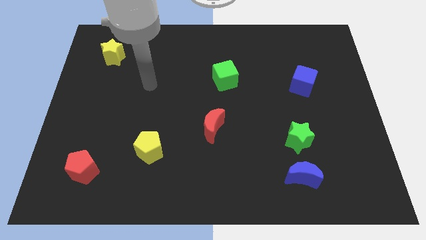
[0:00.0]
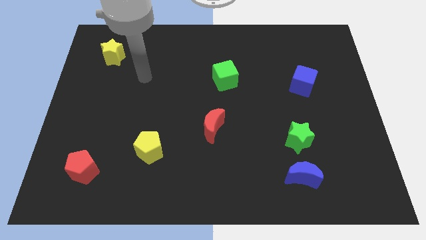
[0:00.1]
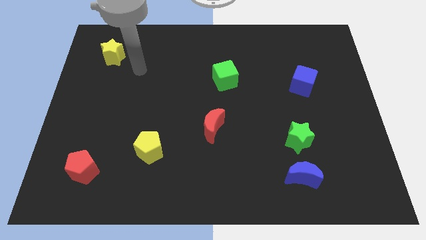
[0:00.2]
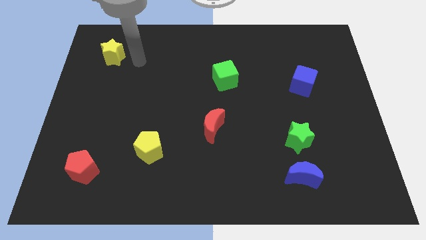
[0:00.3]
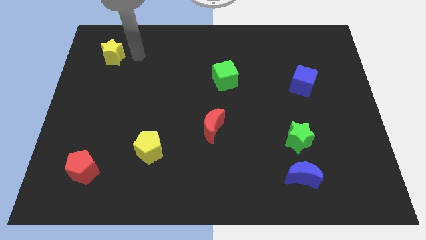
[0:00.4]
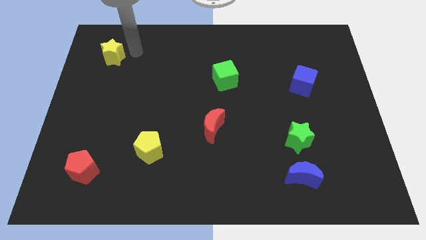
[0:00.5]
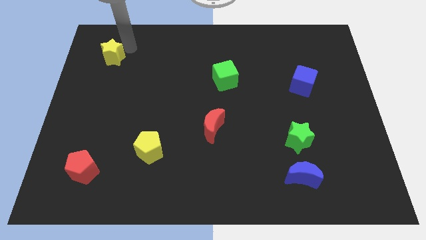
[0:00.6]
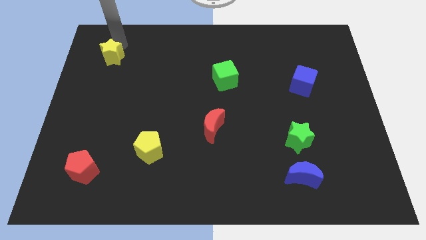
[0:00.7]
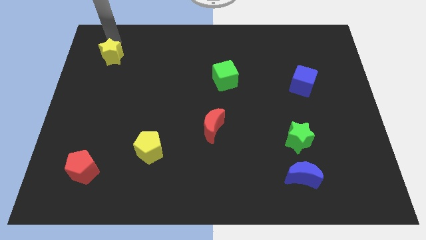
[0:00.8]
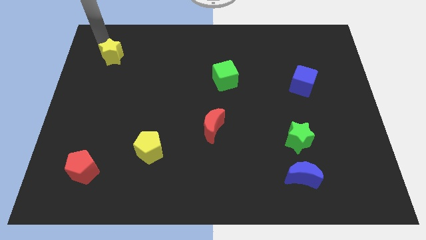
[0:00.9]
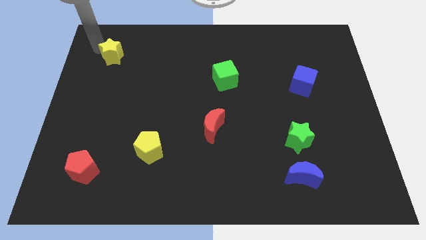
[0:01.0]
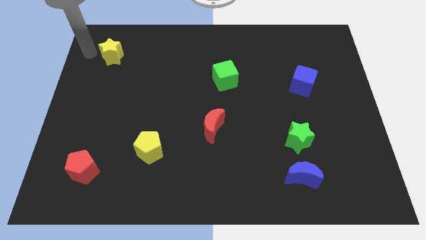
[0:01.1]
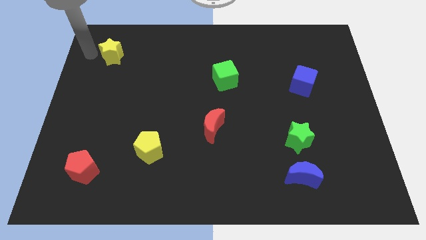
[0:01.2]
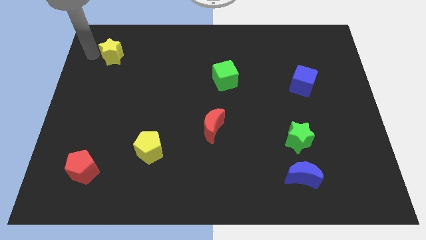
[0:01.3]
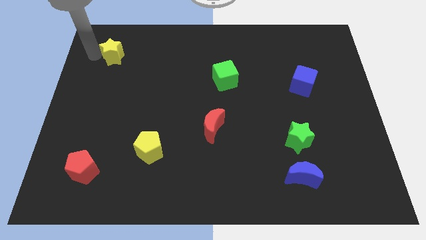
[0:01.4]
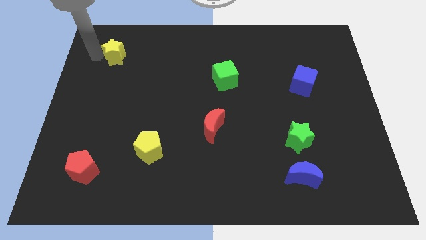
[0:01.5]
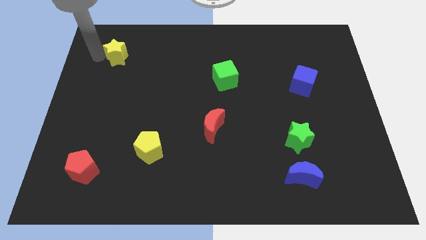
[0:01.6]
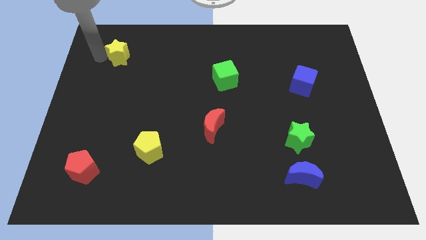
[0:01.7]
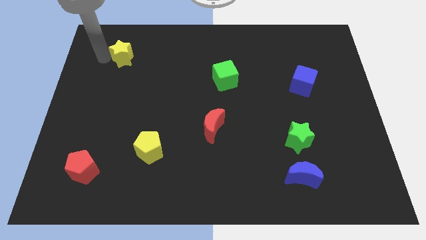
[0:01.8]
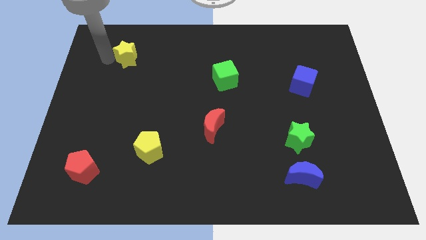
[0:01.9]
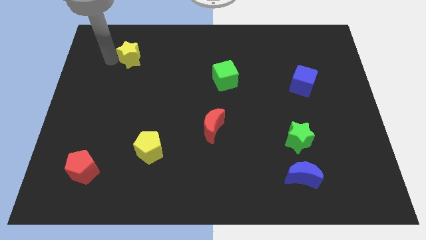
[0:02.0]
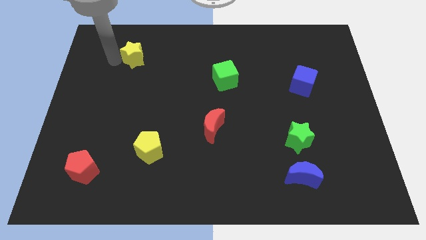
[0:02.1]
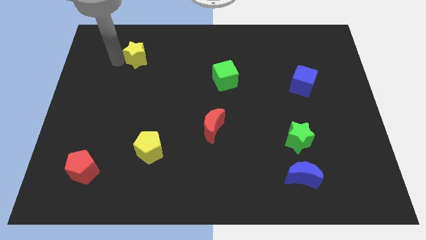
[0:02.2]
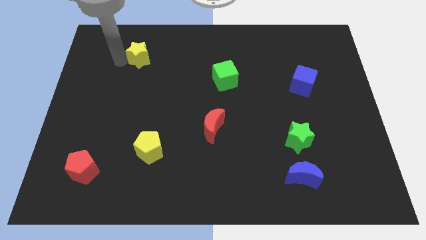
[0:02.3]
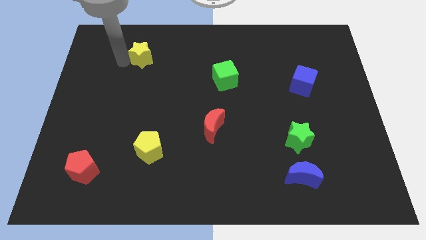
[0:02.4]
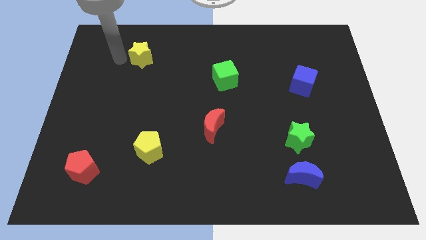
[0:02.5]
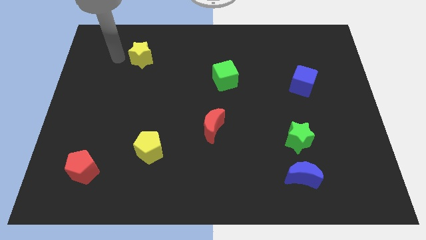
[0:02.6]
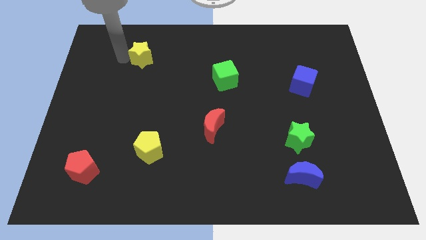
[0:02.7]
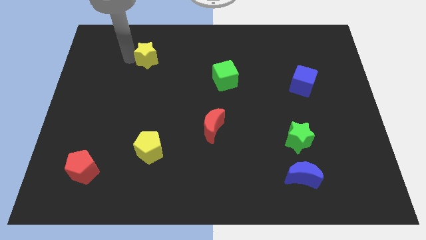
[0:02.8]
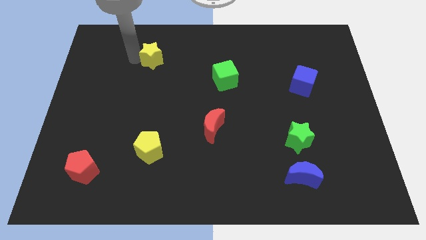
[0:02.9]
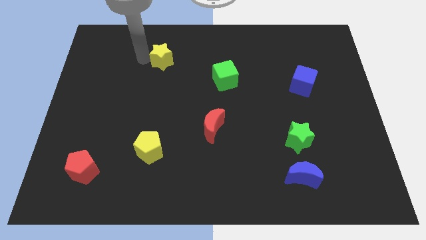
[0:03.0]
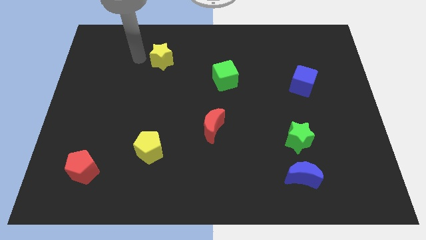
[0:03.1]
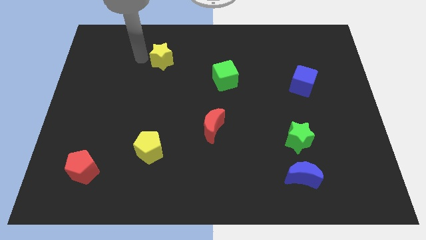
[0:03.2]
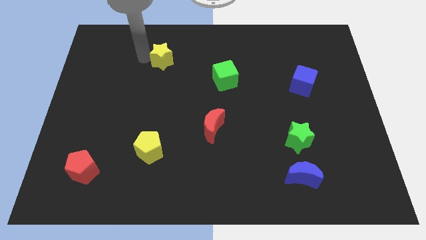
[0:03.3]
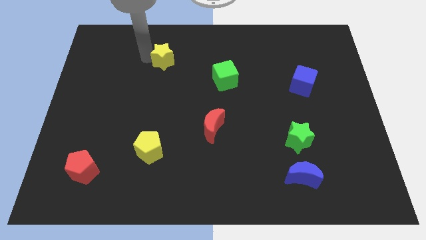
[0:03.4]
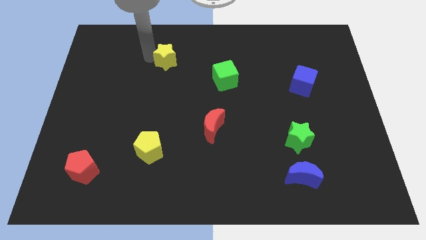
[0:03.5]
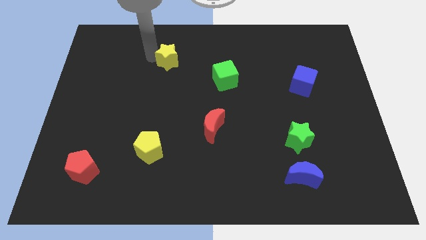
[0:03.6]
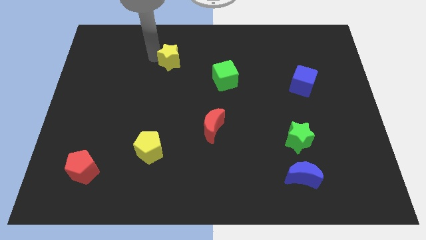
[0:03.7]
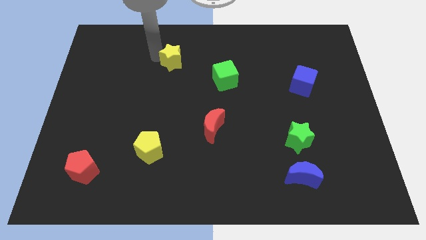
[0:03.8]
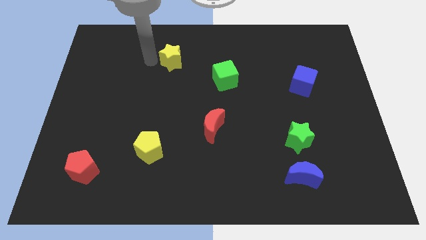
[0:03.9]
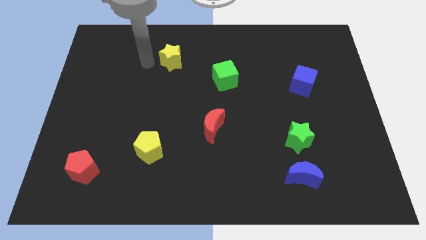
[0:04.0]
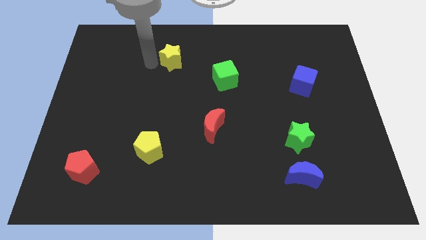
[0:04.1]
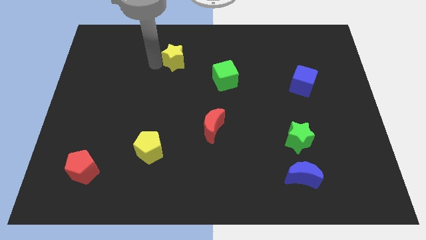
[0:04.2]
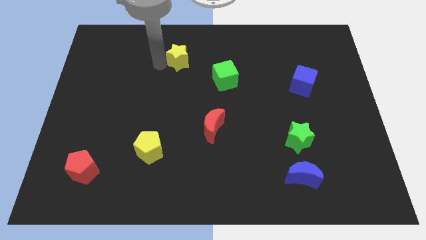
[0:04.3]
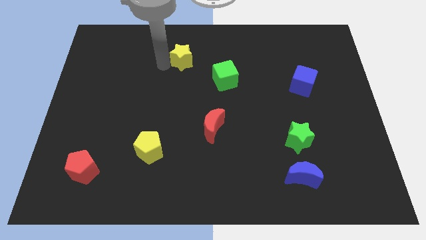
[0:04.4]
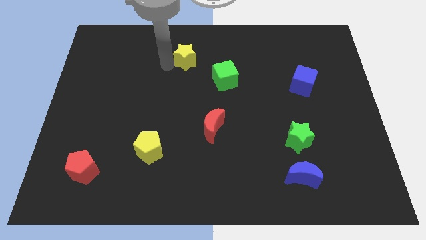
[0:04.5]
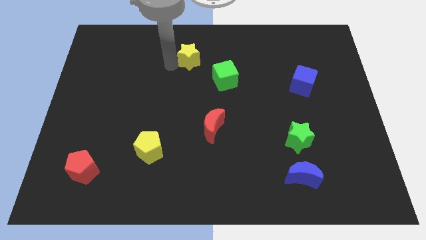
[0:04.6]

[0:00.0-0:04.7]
push the yellow star right

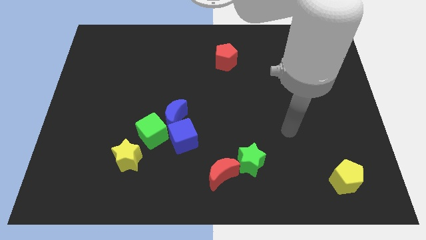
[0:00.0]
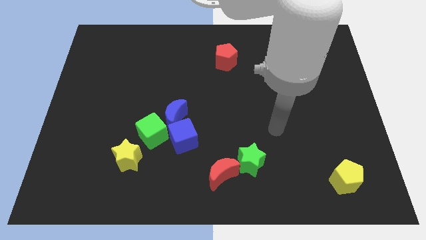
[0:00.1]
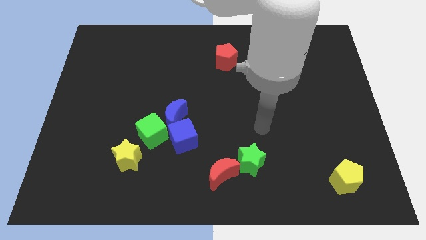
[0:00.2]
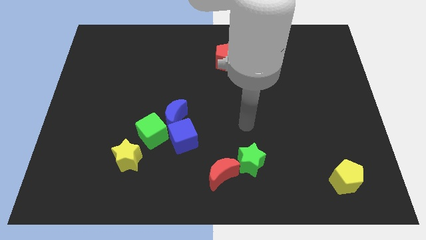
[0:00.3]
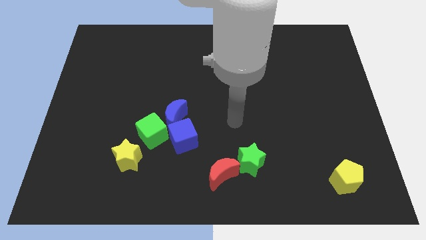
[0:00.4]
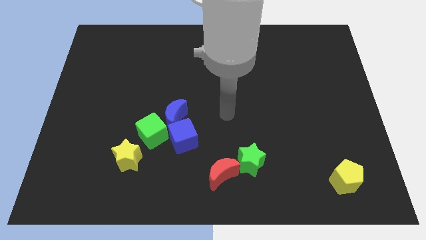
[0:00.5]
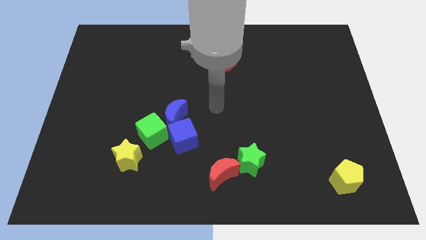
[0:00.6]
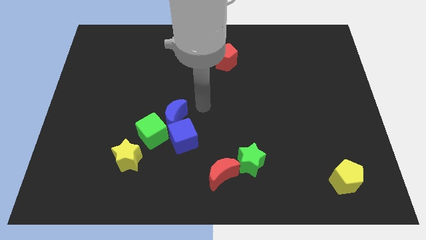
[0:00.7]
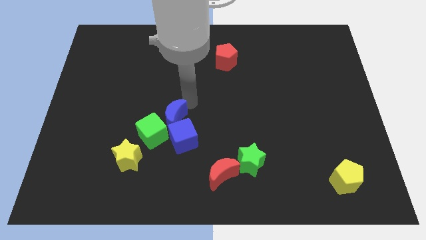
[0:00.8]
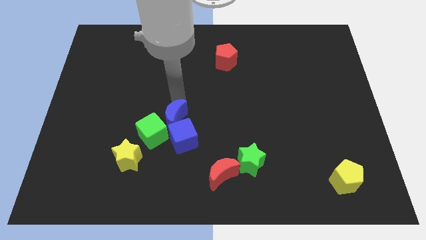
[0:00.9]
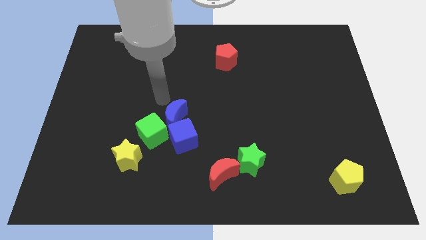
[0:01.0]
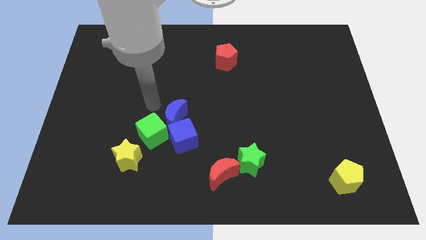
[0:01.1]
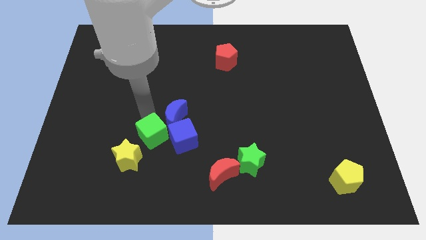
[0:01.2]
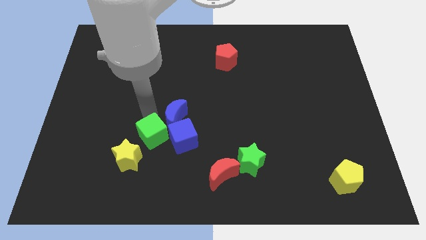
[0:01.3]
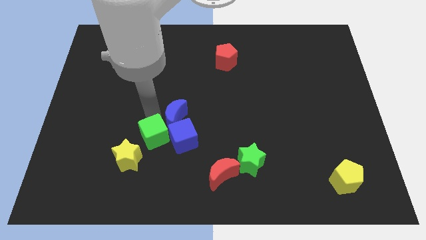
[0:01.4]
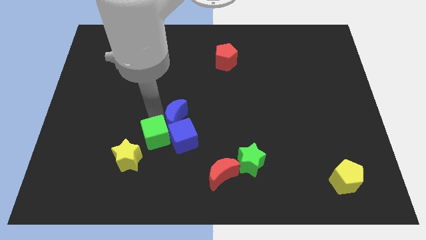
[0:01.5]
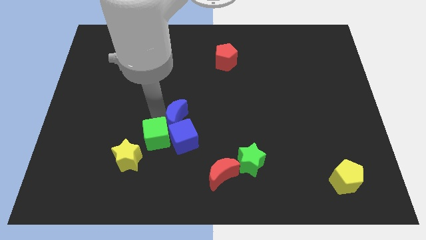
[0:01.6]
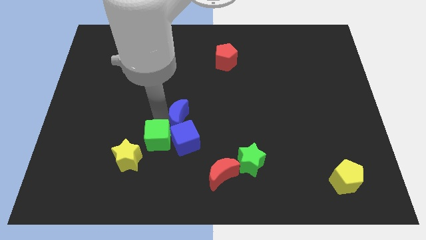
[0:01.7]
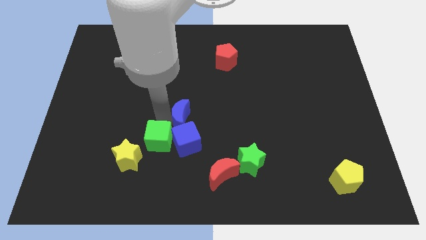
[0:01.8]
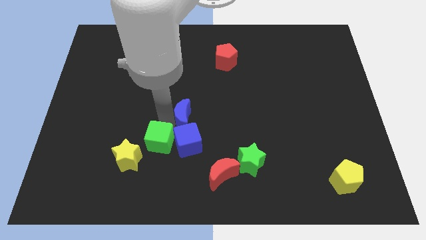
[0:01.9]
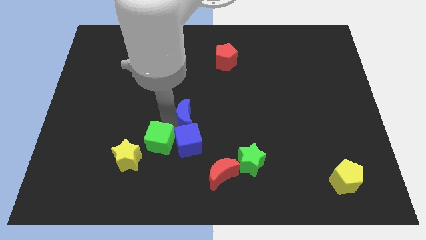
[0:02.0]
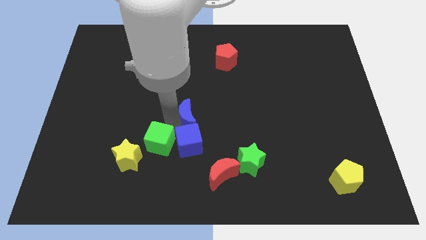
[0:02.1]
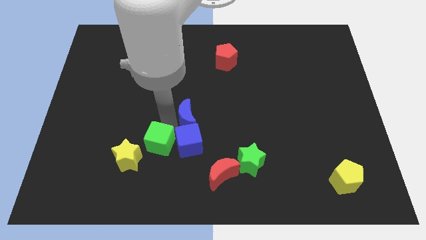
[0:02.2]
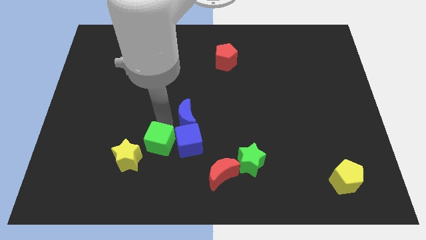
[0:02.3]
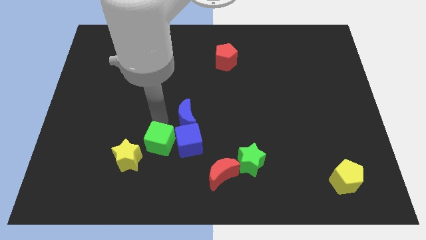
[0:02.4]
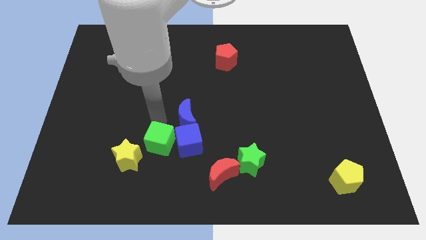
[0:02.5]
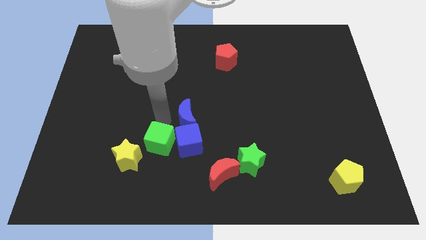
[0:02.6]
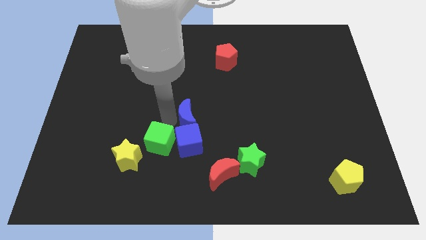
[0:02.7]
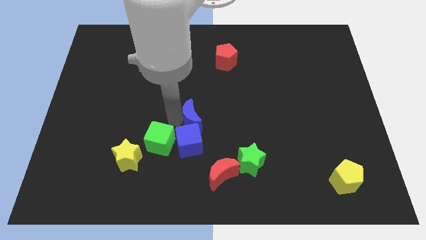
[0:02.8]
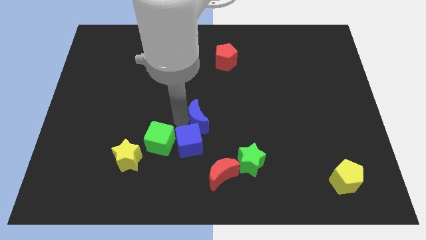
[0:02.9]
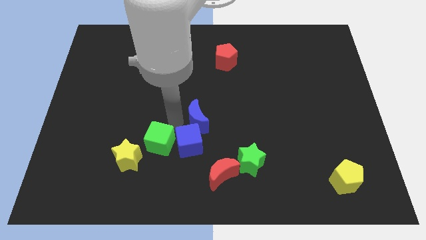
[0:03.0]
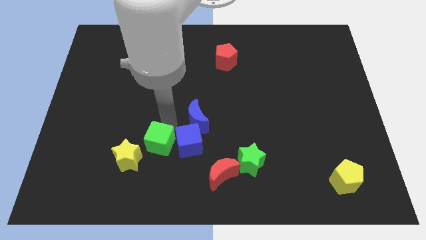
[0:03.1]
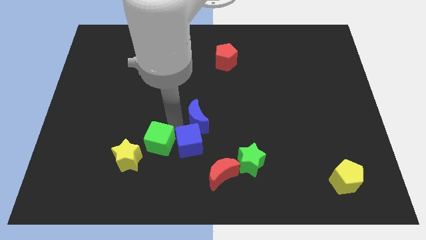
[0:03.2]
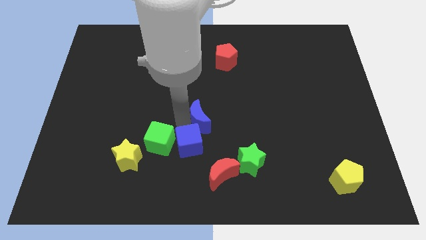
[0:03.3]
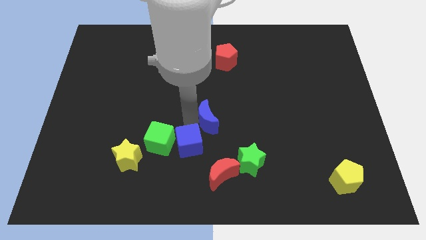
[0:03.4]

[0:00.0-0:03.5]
move the blue moon to the right a bit

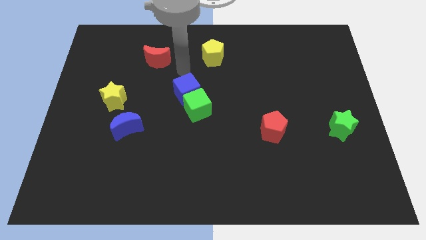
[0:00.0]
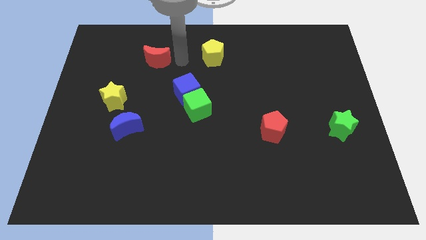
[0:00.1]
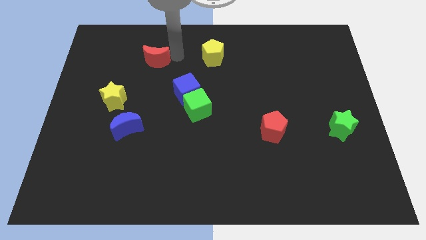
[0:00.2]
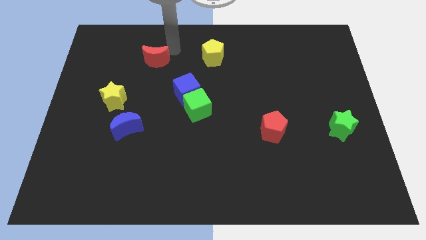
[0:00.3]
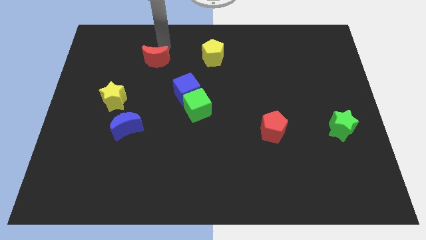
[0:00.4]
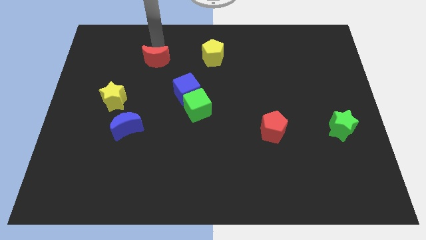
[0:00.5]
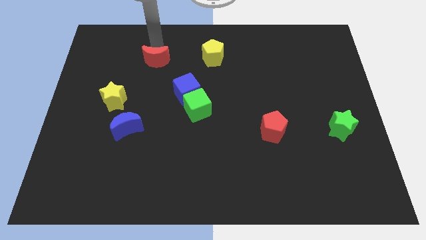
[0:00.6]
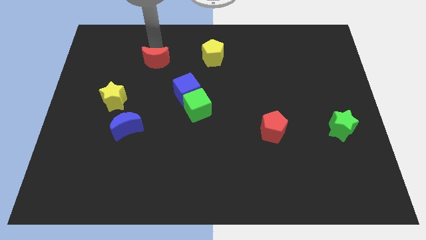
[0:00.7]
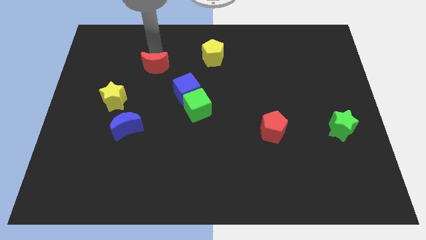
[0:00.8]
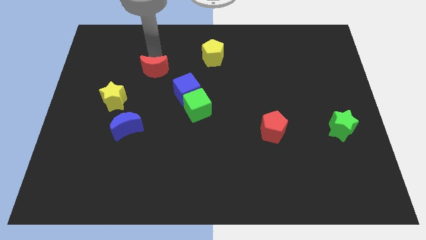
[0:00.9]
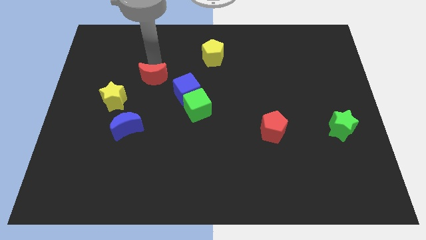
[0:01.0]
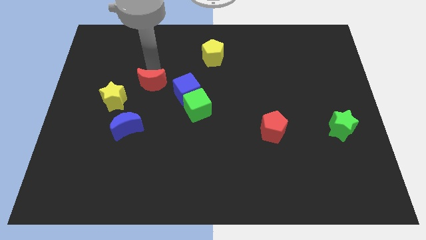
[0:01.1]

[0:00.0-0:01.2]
push the red moon down a little bit
